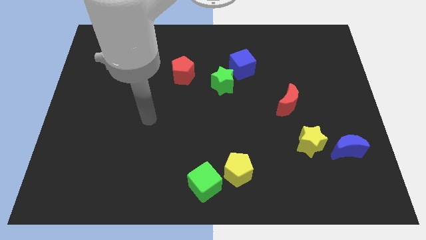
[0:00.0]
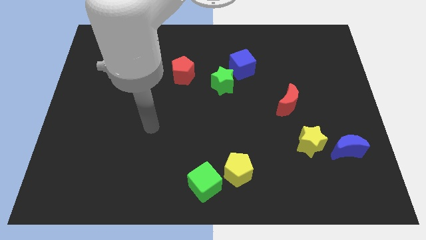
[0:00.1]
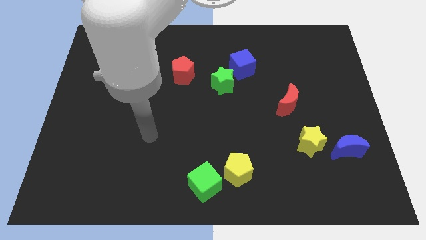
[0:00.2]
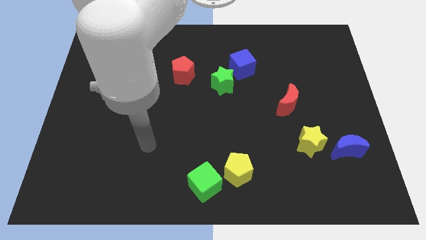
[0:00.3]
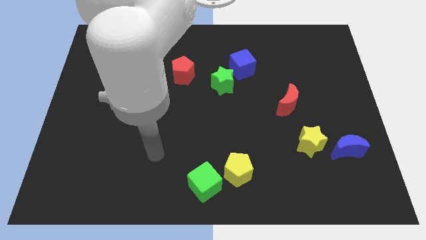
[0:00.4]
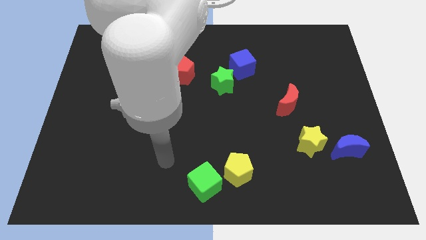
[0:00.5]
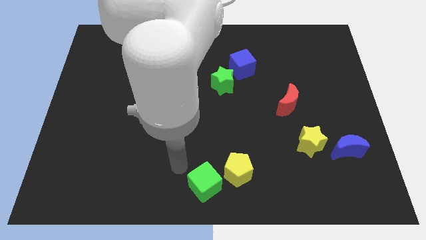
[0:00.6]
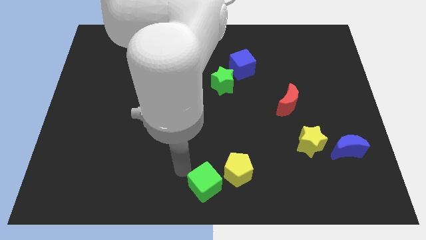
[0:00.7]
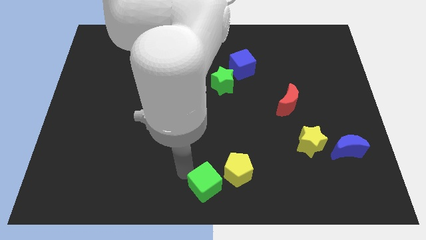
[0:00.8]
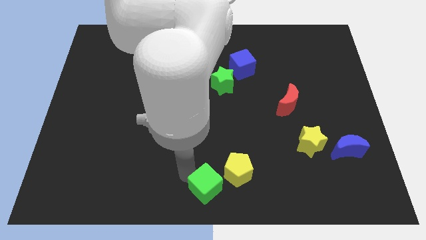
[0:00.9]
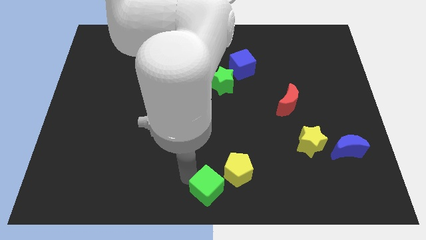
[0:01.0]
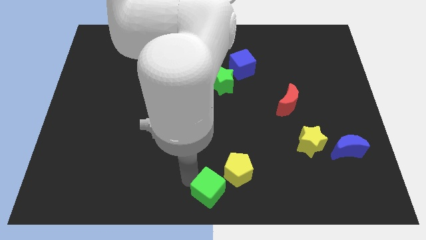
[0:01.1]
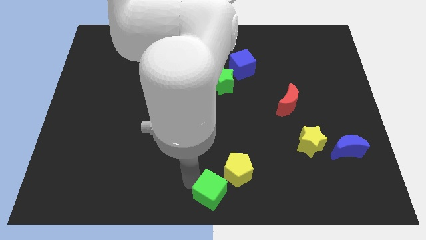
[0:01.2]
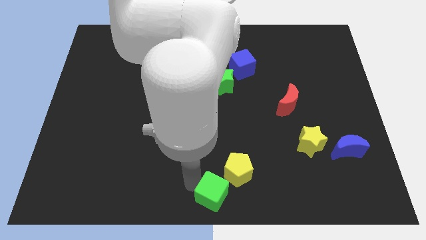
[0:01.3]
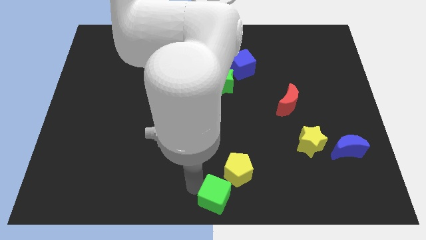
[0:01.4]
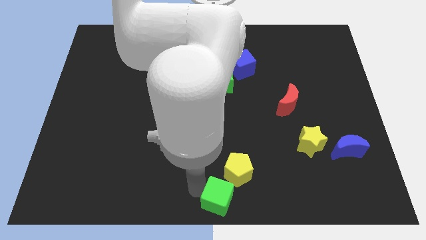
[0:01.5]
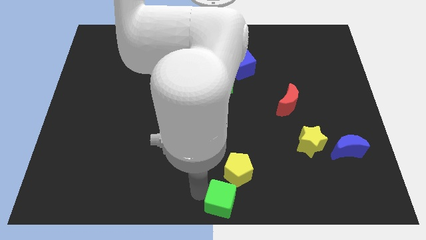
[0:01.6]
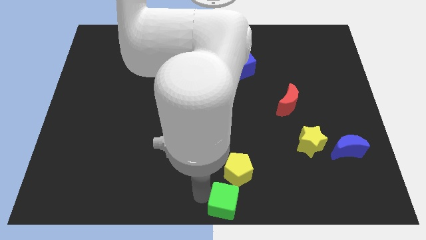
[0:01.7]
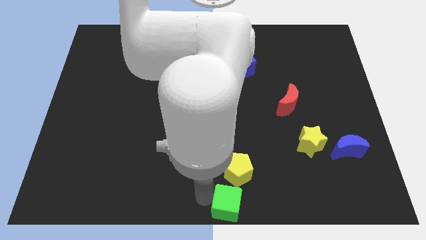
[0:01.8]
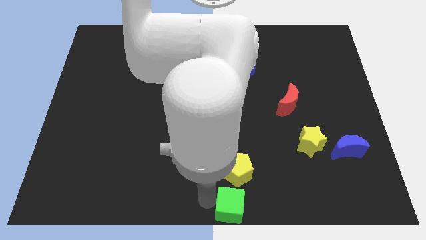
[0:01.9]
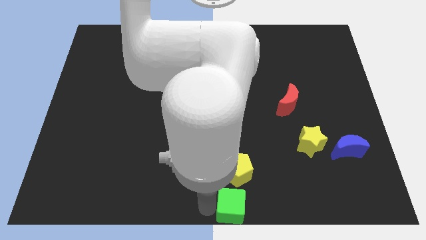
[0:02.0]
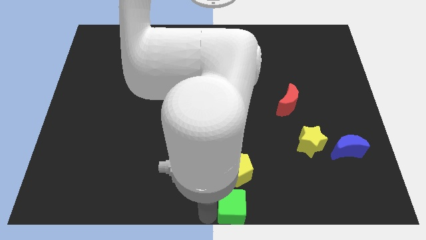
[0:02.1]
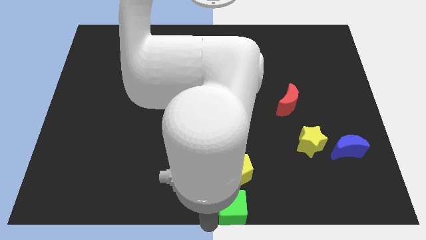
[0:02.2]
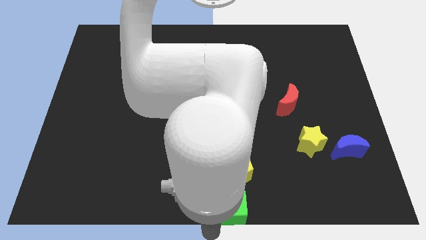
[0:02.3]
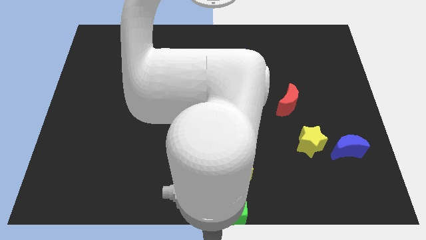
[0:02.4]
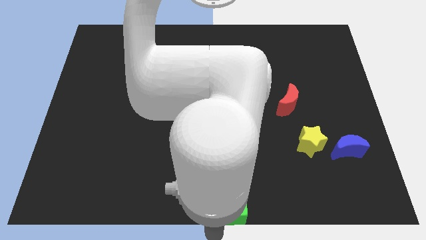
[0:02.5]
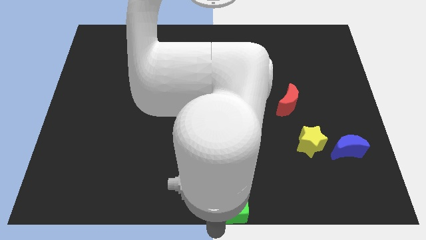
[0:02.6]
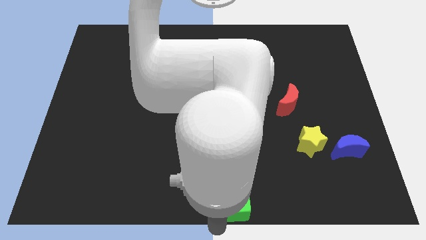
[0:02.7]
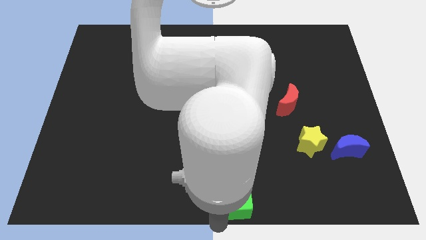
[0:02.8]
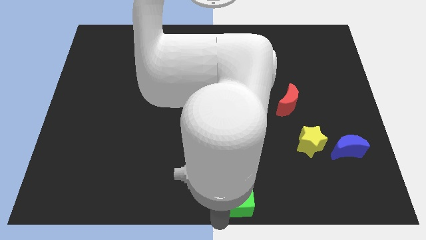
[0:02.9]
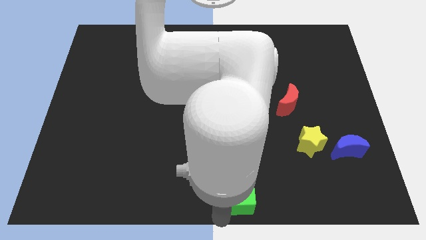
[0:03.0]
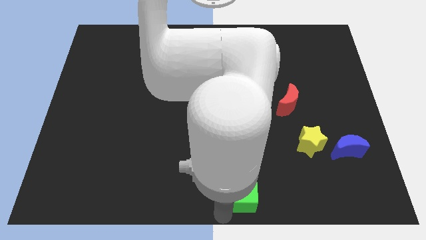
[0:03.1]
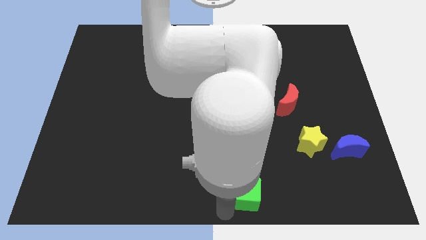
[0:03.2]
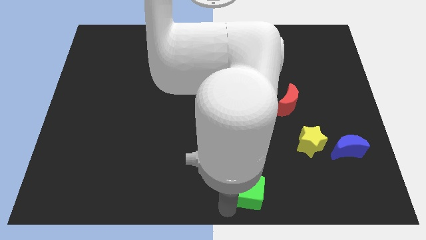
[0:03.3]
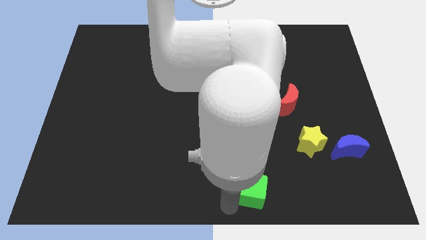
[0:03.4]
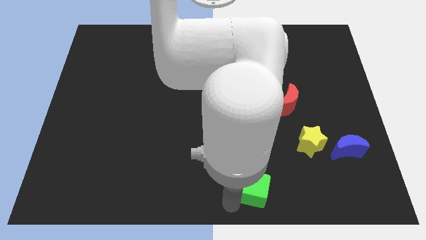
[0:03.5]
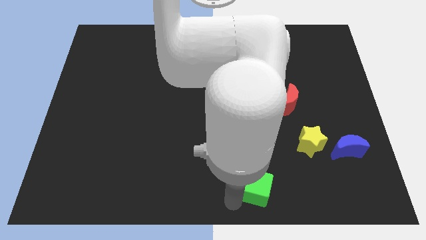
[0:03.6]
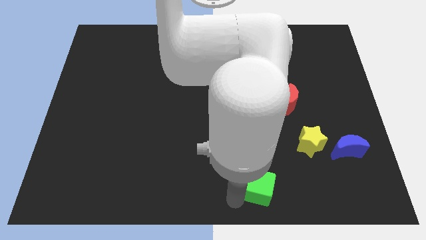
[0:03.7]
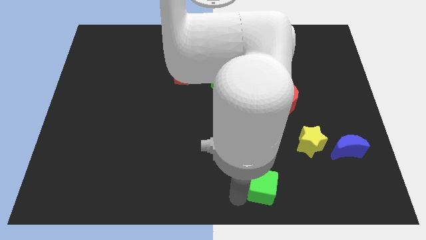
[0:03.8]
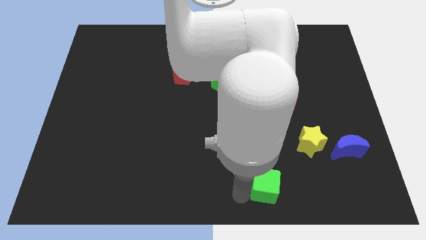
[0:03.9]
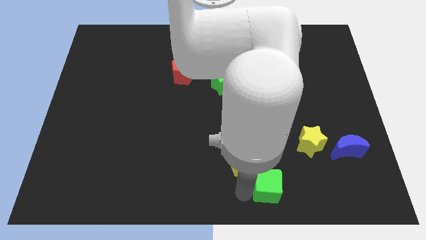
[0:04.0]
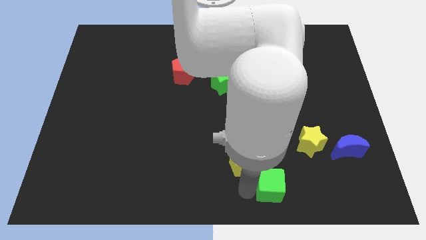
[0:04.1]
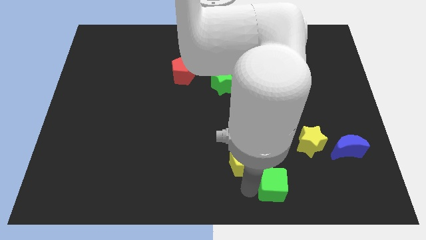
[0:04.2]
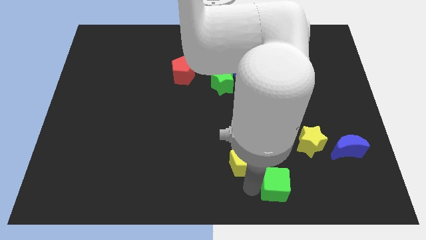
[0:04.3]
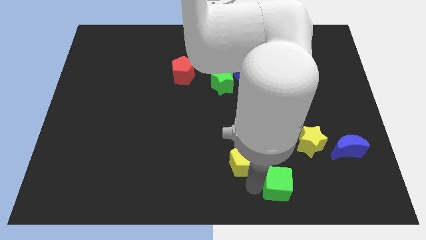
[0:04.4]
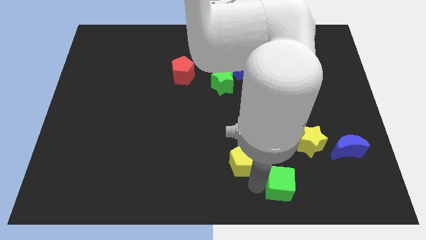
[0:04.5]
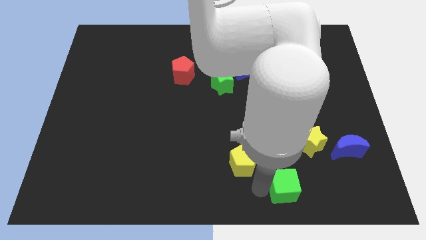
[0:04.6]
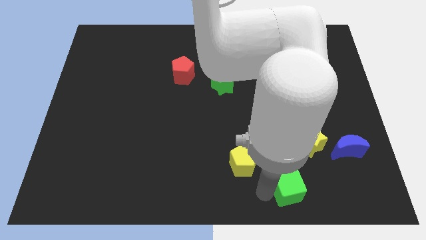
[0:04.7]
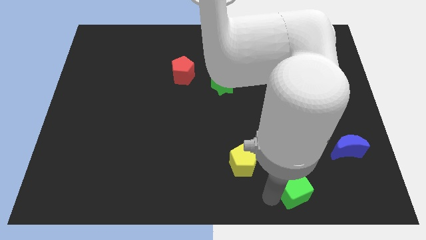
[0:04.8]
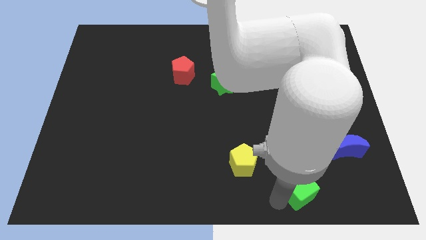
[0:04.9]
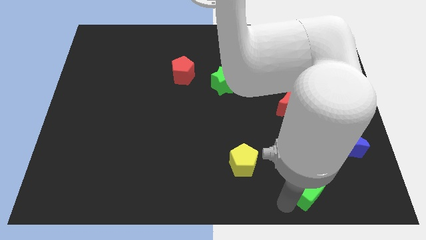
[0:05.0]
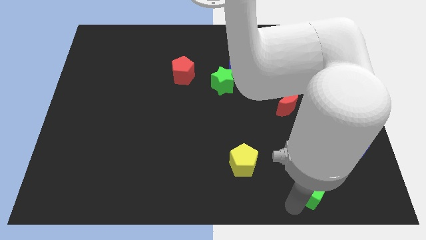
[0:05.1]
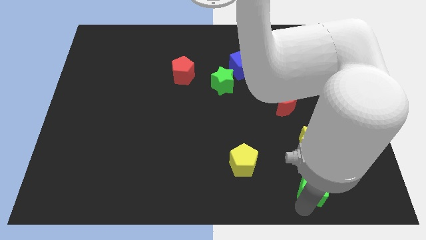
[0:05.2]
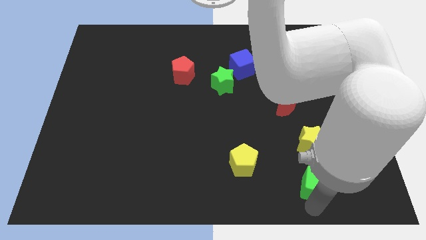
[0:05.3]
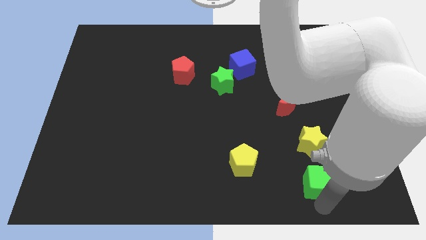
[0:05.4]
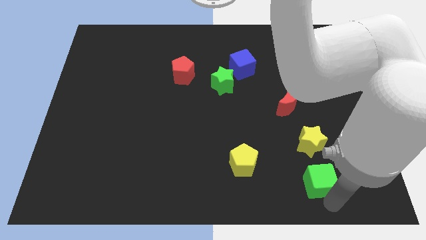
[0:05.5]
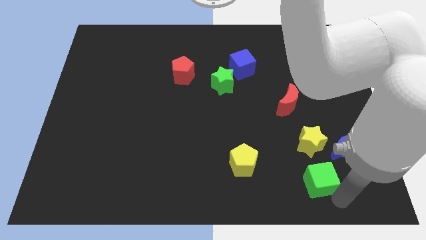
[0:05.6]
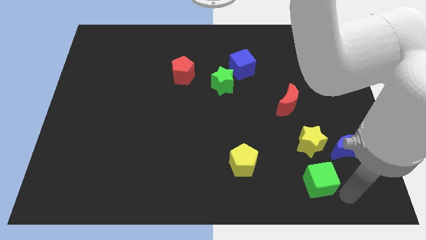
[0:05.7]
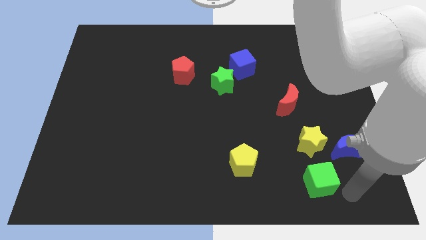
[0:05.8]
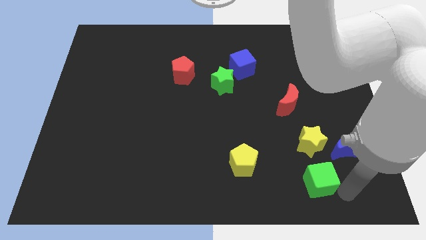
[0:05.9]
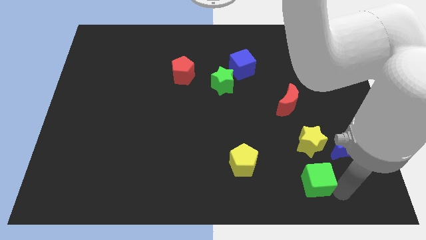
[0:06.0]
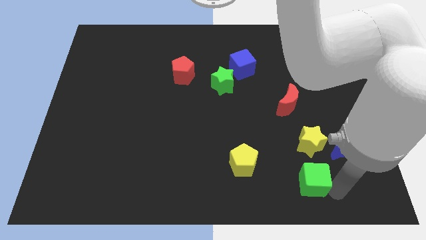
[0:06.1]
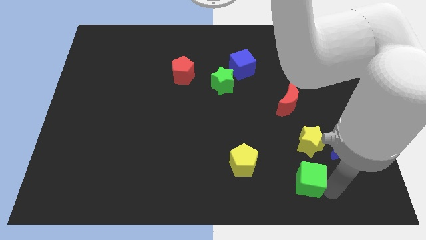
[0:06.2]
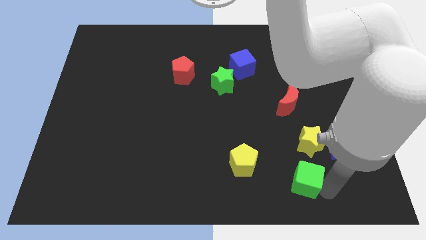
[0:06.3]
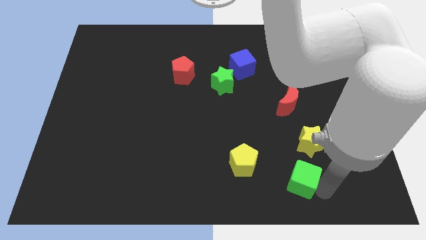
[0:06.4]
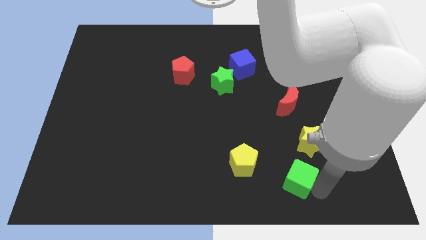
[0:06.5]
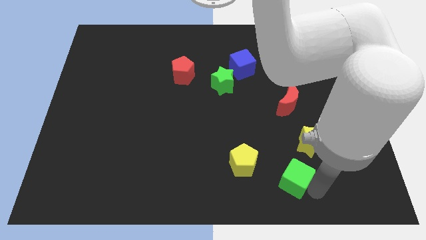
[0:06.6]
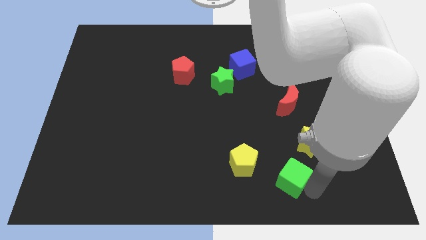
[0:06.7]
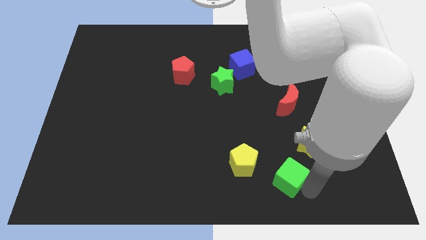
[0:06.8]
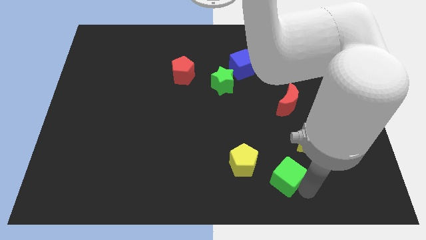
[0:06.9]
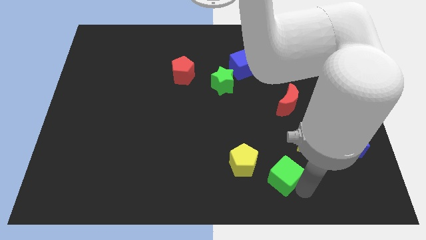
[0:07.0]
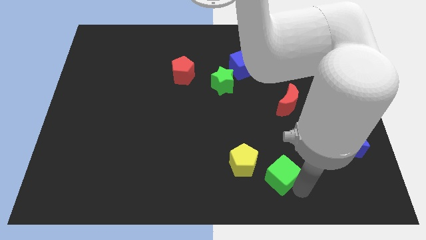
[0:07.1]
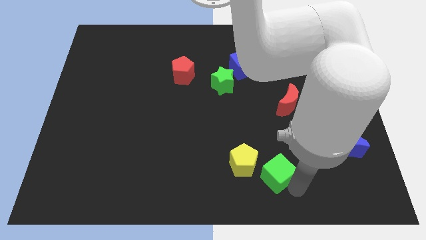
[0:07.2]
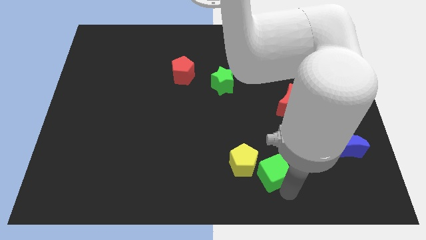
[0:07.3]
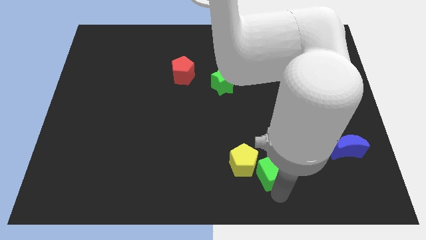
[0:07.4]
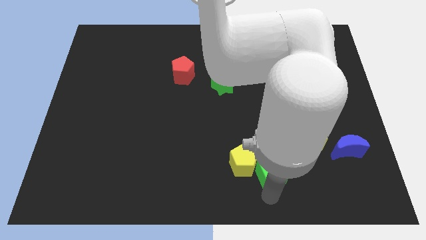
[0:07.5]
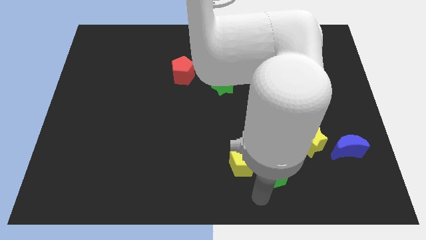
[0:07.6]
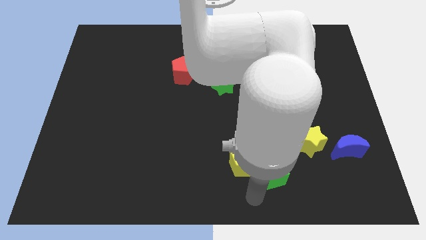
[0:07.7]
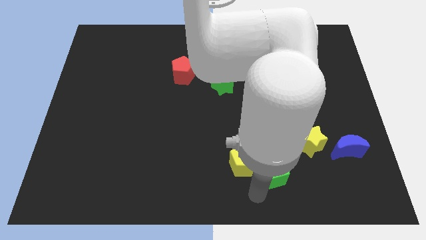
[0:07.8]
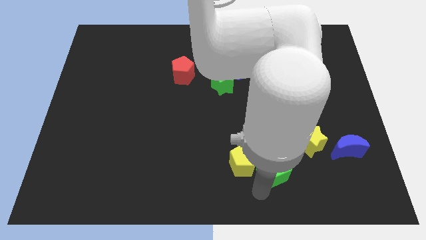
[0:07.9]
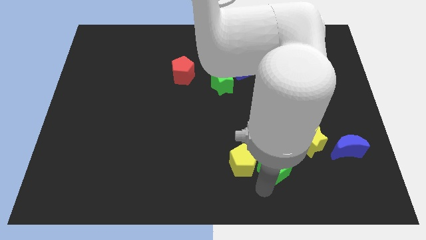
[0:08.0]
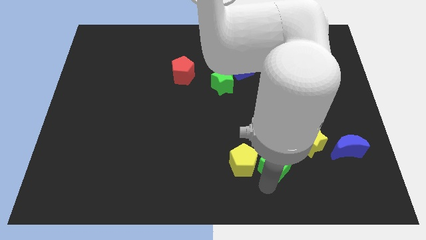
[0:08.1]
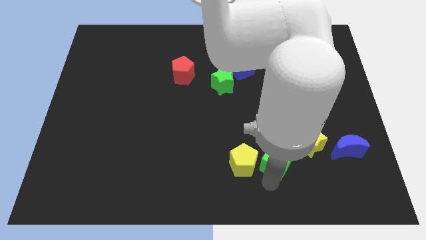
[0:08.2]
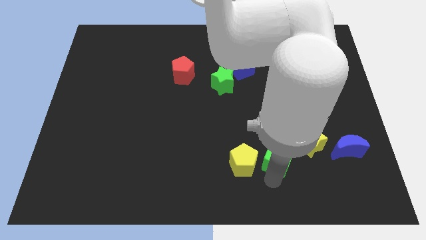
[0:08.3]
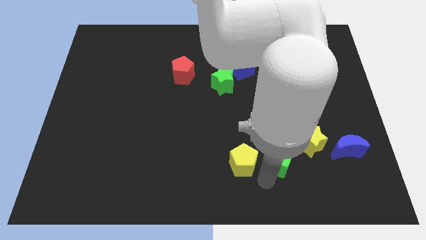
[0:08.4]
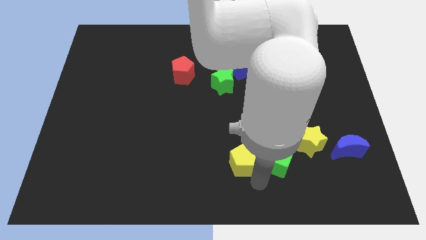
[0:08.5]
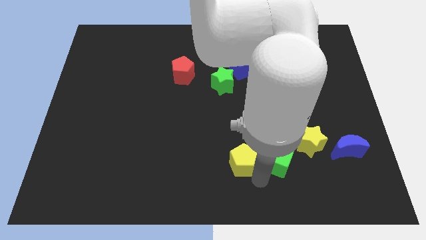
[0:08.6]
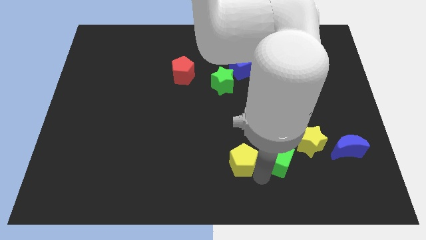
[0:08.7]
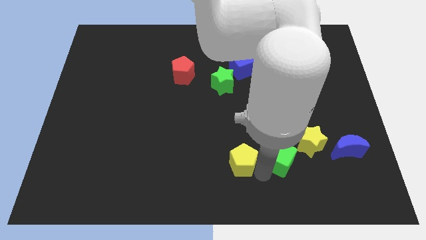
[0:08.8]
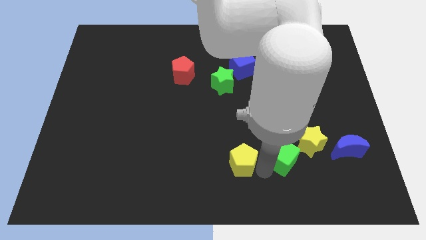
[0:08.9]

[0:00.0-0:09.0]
put the green cube to the bottom of the red moon
